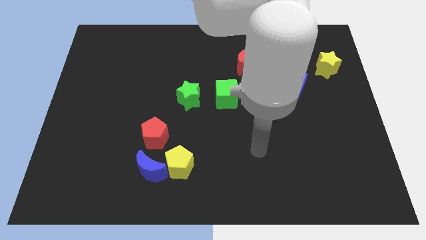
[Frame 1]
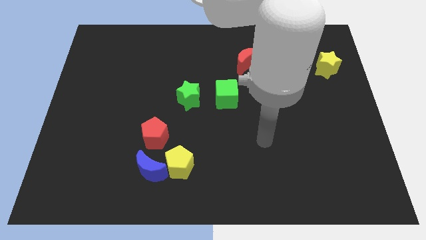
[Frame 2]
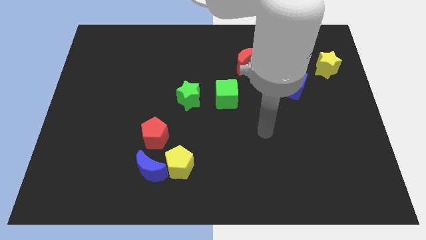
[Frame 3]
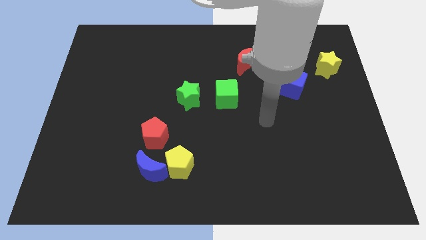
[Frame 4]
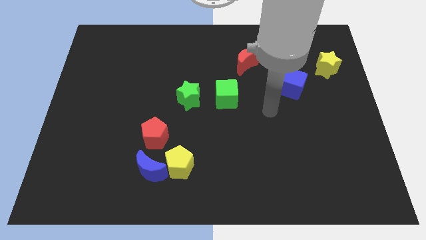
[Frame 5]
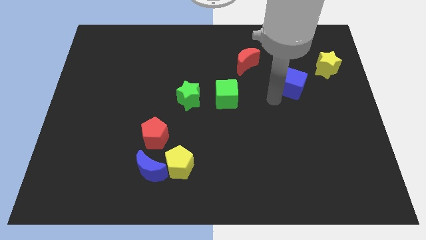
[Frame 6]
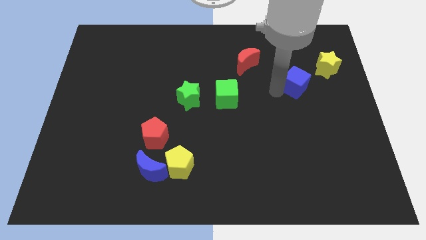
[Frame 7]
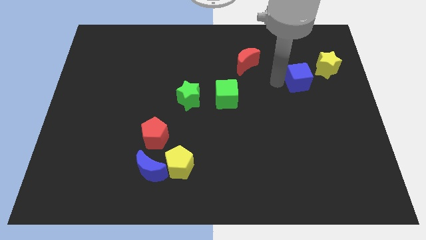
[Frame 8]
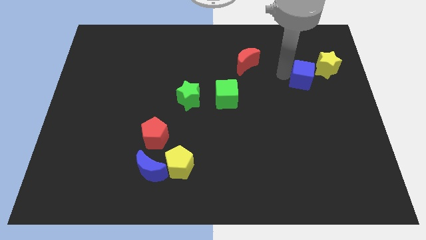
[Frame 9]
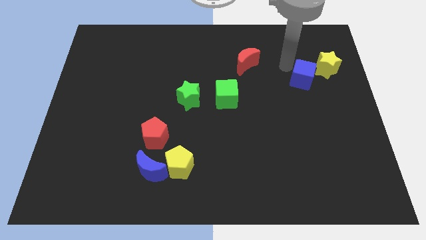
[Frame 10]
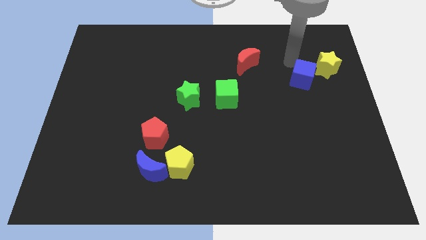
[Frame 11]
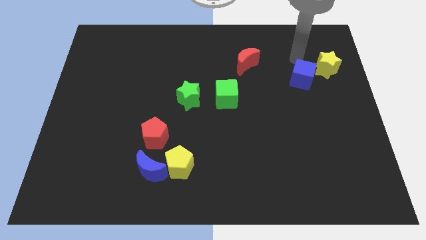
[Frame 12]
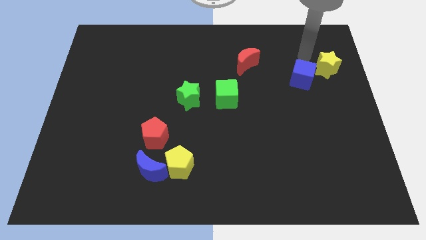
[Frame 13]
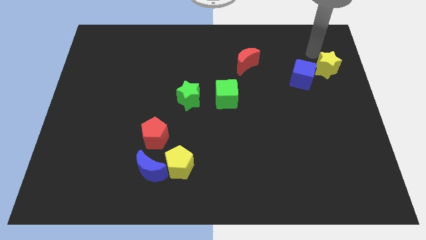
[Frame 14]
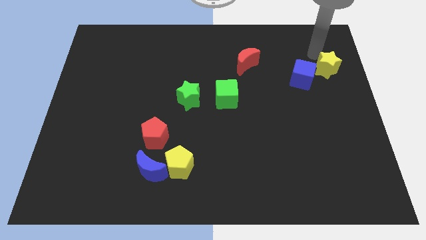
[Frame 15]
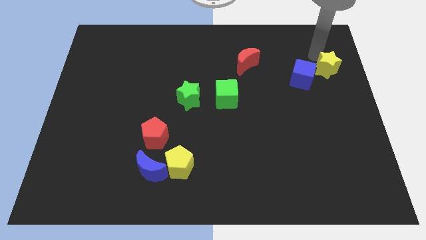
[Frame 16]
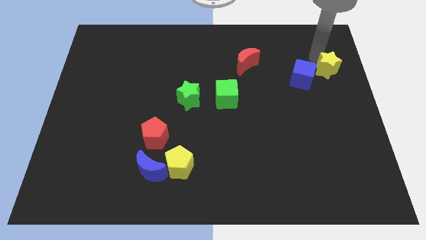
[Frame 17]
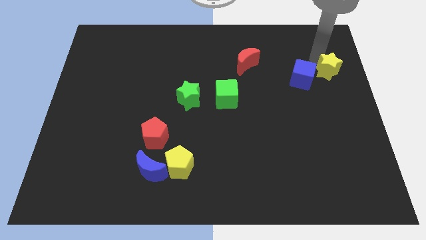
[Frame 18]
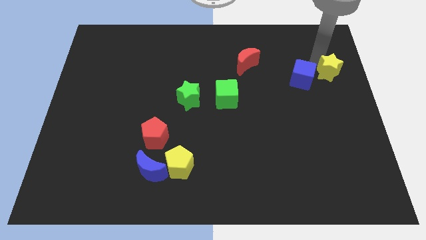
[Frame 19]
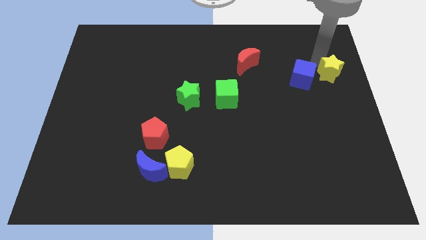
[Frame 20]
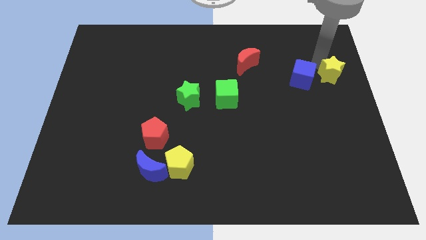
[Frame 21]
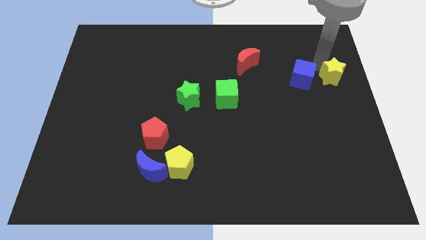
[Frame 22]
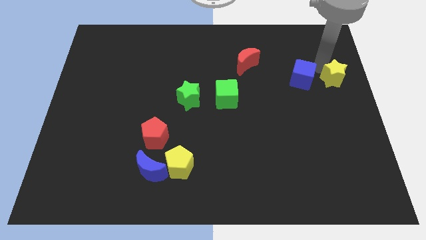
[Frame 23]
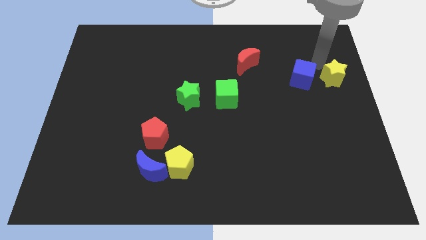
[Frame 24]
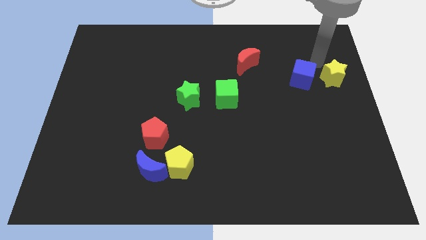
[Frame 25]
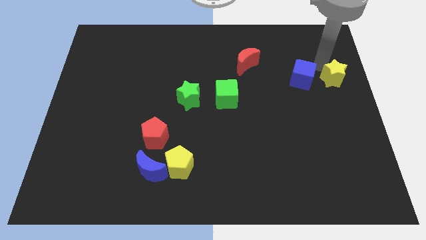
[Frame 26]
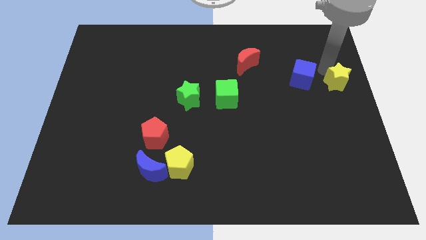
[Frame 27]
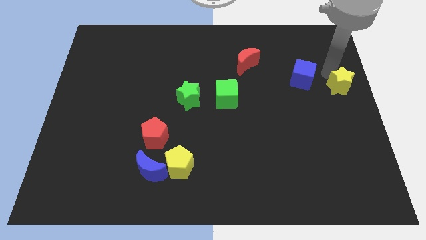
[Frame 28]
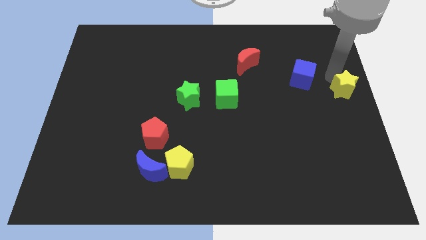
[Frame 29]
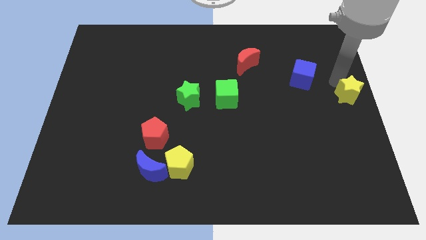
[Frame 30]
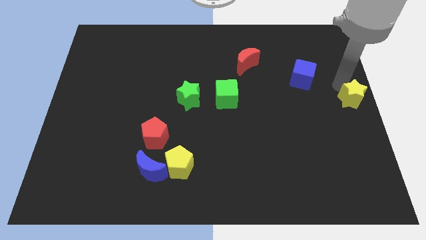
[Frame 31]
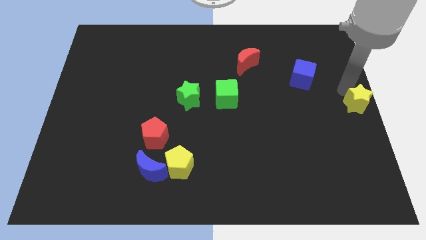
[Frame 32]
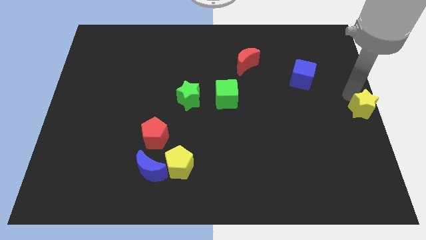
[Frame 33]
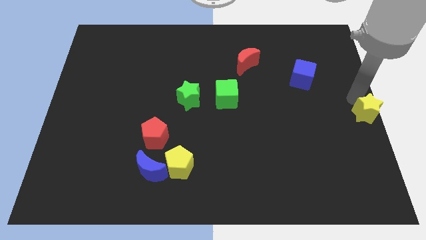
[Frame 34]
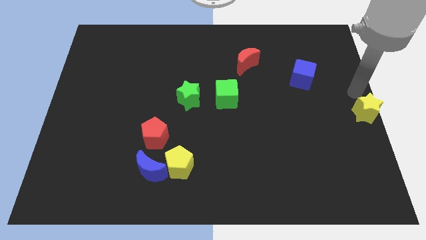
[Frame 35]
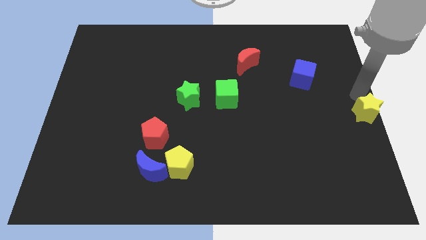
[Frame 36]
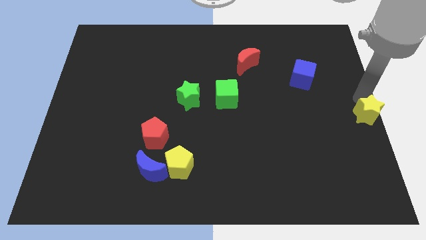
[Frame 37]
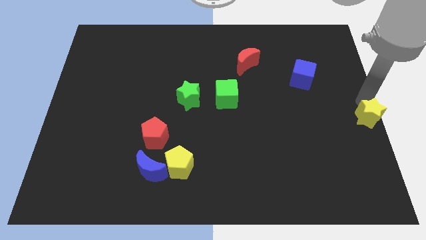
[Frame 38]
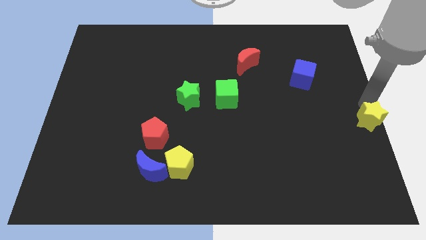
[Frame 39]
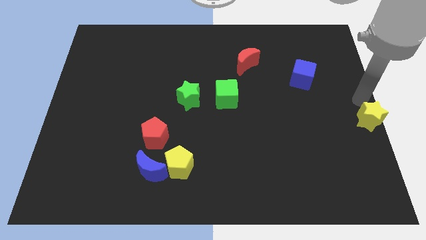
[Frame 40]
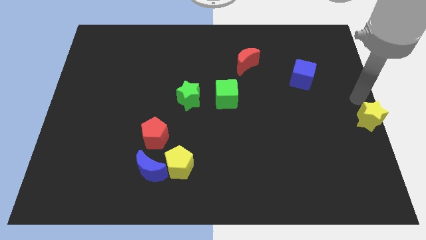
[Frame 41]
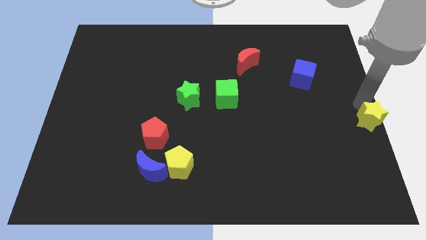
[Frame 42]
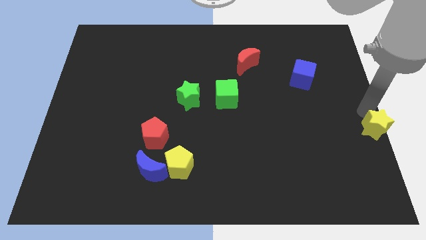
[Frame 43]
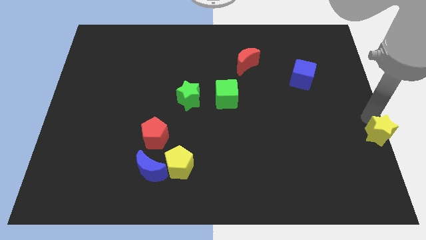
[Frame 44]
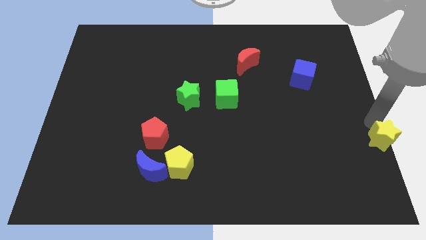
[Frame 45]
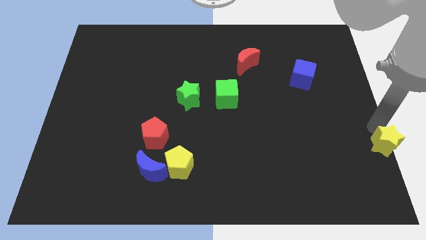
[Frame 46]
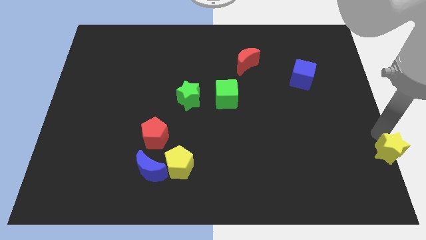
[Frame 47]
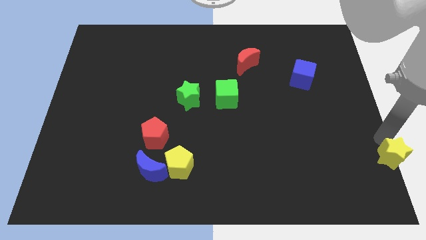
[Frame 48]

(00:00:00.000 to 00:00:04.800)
slide the yellow star to the bottom right

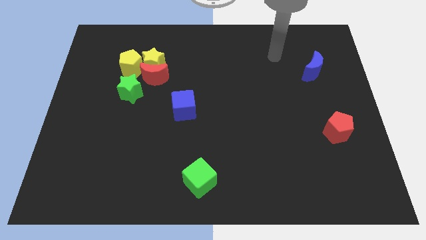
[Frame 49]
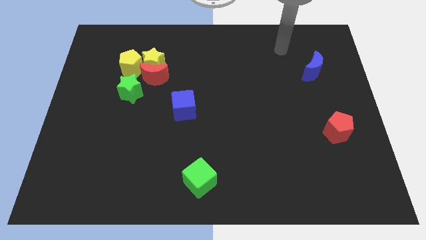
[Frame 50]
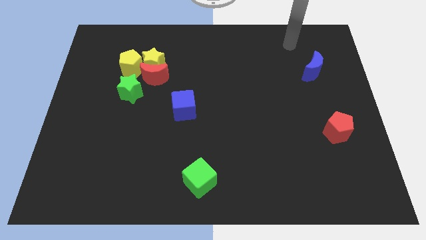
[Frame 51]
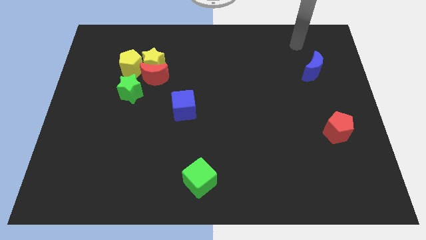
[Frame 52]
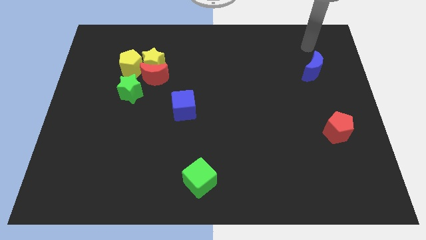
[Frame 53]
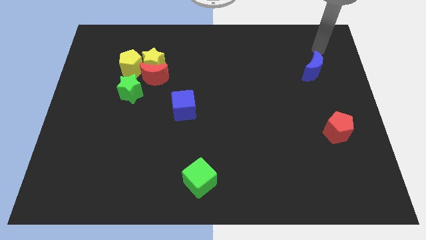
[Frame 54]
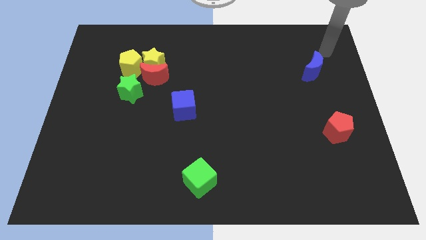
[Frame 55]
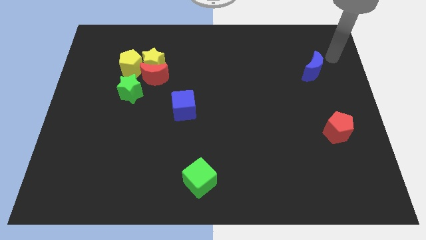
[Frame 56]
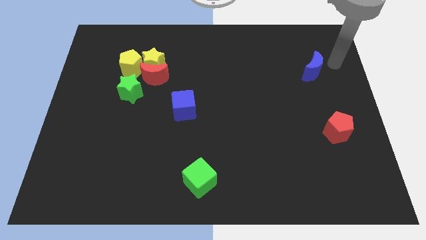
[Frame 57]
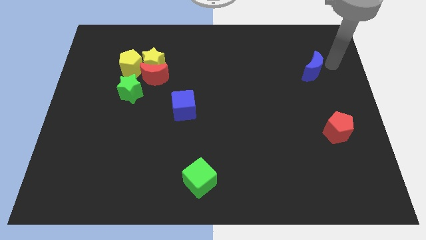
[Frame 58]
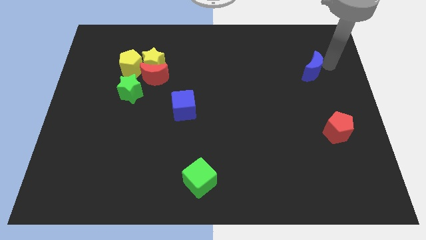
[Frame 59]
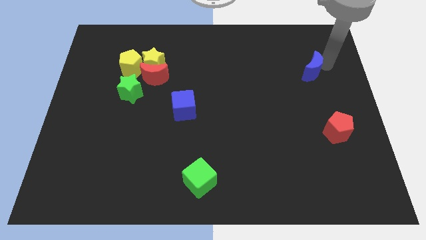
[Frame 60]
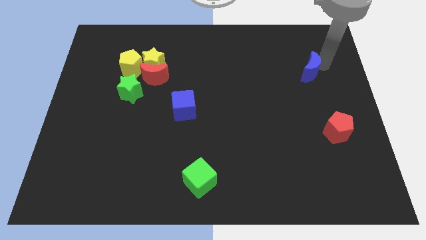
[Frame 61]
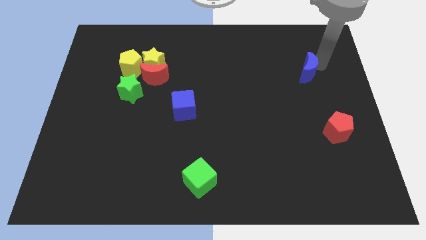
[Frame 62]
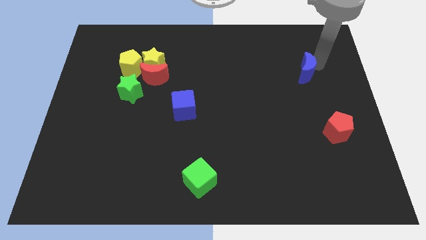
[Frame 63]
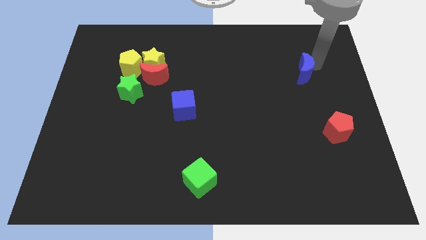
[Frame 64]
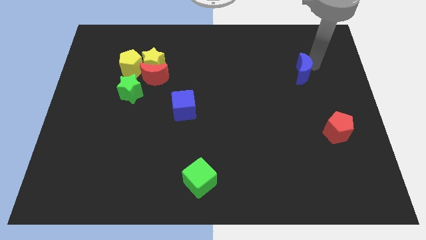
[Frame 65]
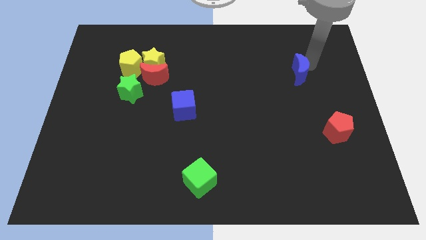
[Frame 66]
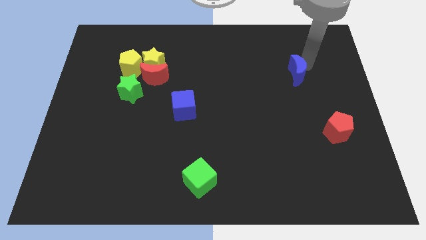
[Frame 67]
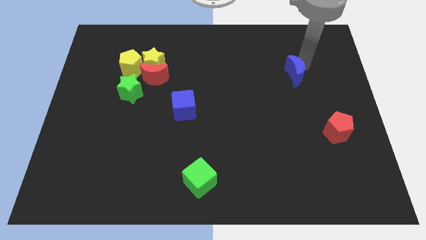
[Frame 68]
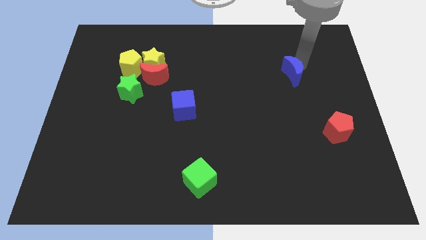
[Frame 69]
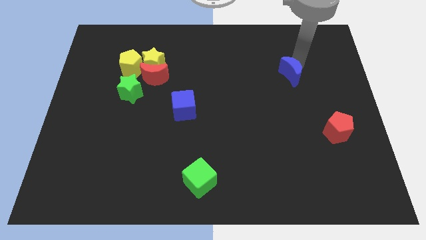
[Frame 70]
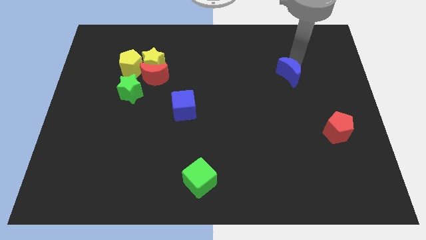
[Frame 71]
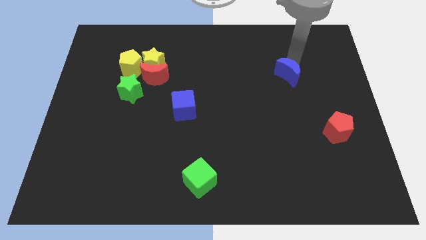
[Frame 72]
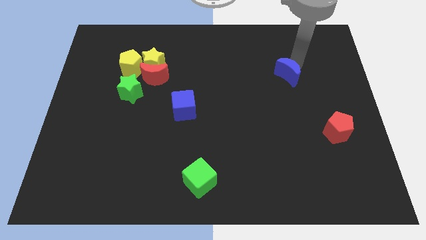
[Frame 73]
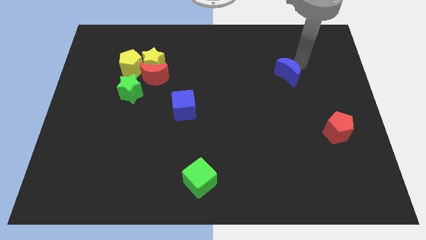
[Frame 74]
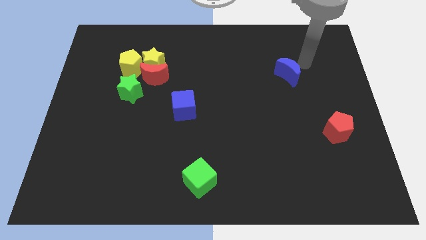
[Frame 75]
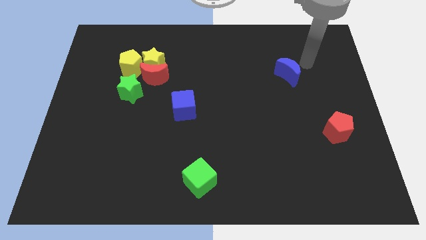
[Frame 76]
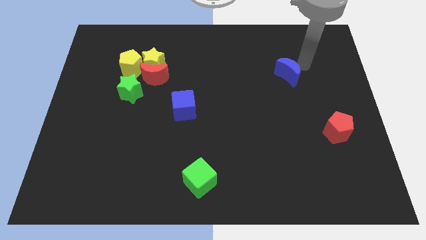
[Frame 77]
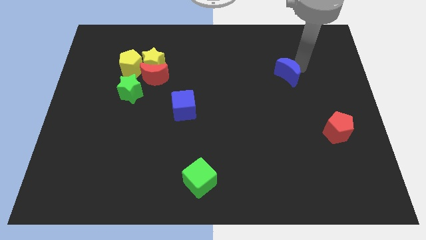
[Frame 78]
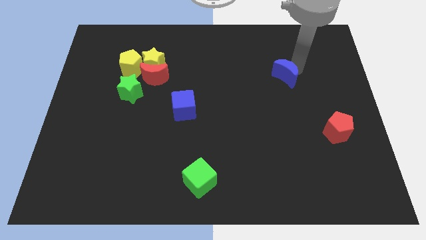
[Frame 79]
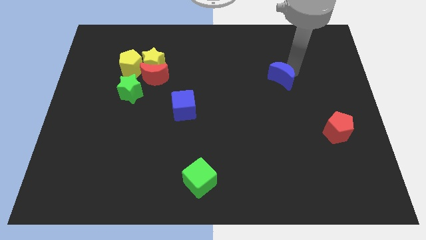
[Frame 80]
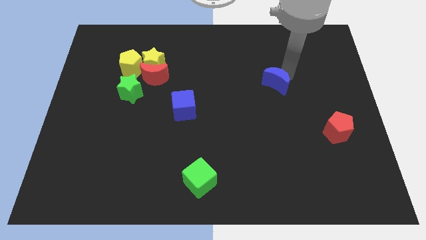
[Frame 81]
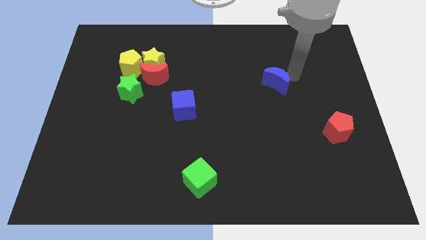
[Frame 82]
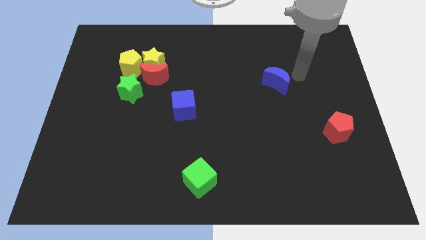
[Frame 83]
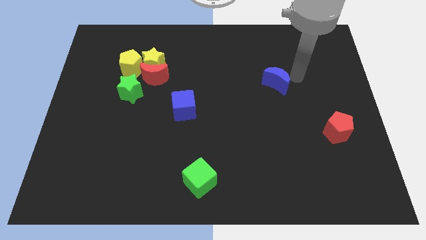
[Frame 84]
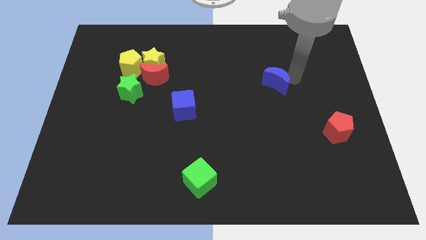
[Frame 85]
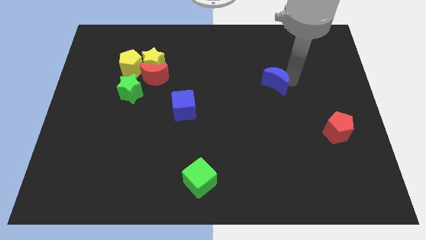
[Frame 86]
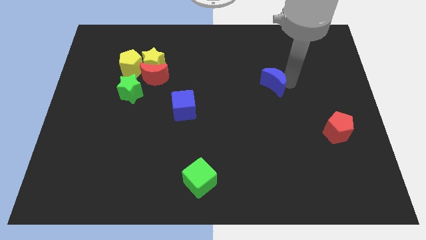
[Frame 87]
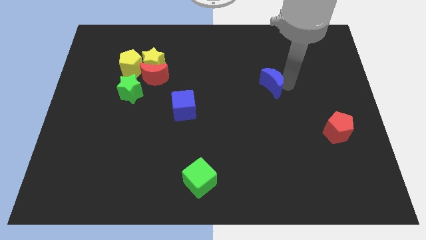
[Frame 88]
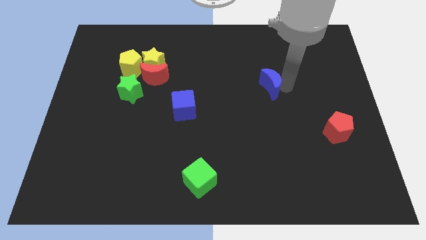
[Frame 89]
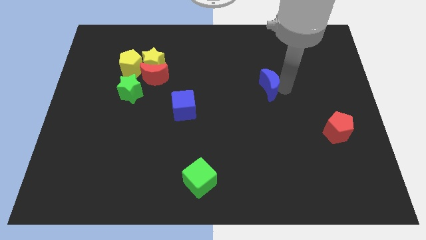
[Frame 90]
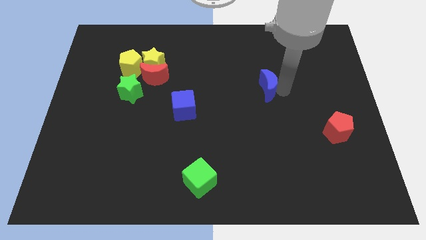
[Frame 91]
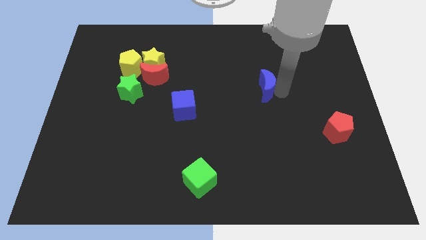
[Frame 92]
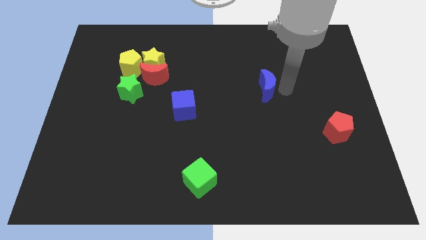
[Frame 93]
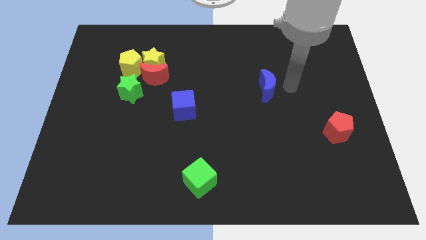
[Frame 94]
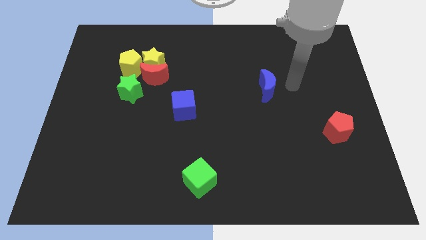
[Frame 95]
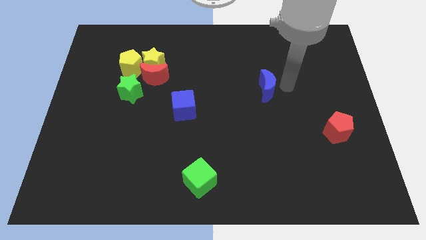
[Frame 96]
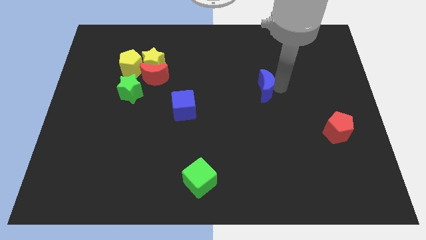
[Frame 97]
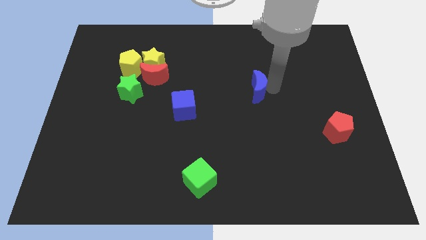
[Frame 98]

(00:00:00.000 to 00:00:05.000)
push the blue moon to the middle of the board
